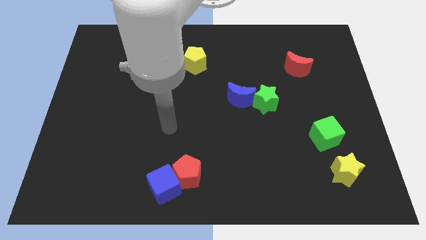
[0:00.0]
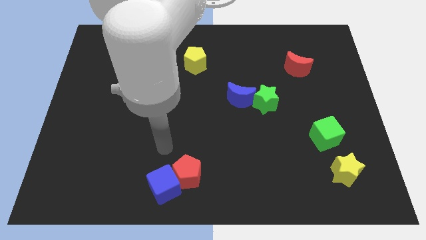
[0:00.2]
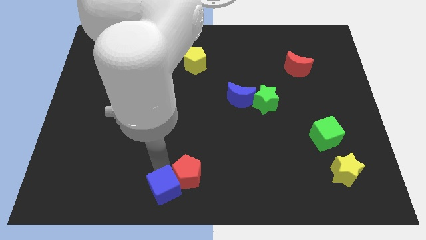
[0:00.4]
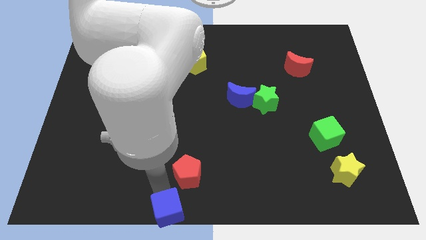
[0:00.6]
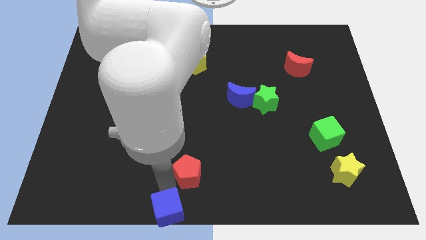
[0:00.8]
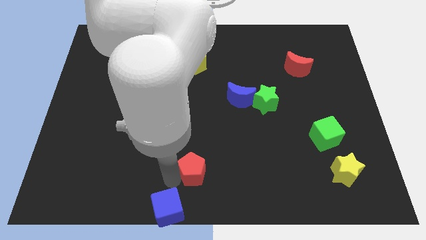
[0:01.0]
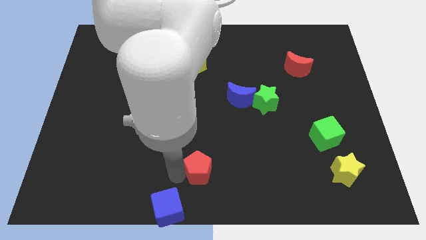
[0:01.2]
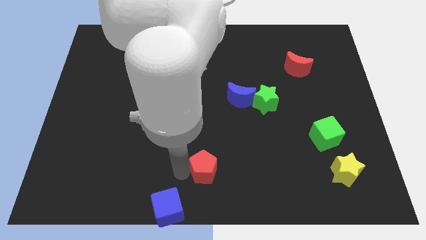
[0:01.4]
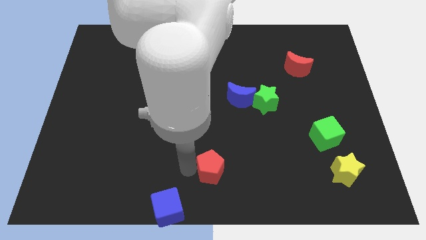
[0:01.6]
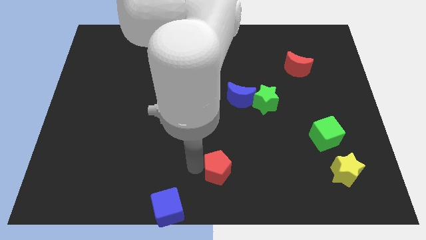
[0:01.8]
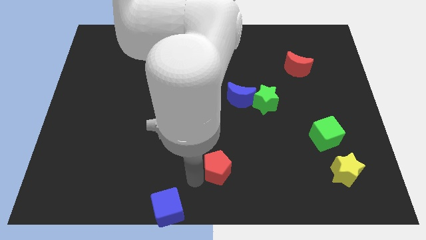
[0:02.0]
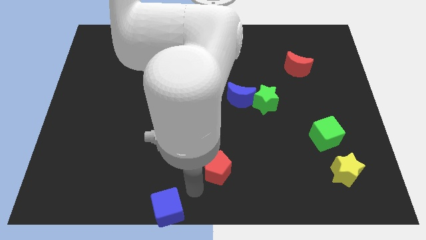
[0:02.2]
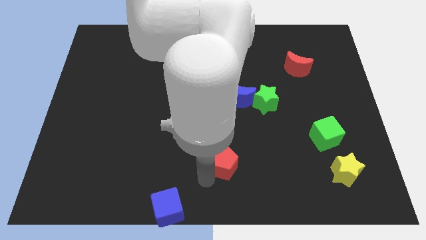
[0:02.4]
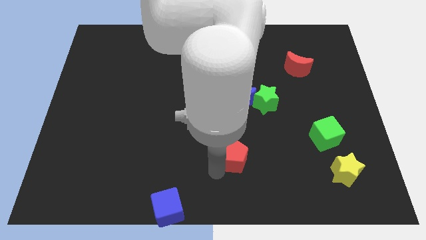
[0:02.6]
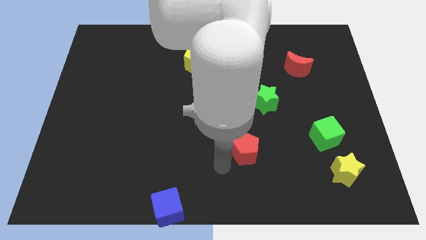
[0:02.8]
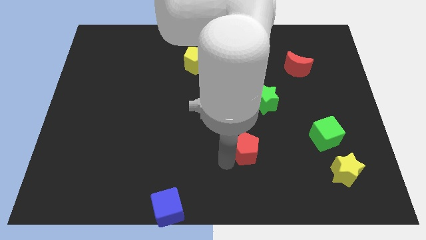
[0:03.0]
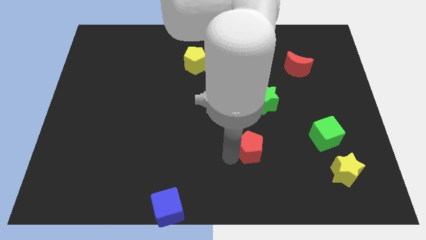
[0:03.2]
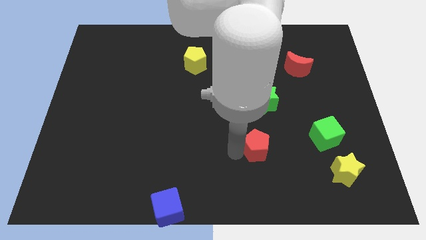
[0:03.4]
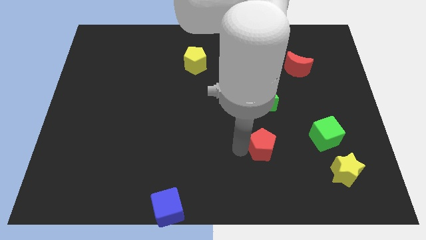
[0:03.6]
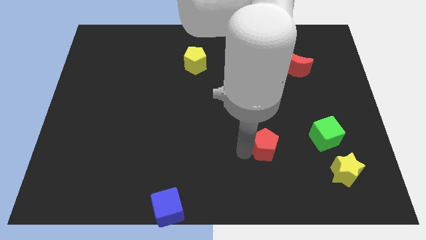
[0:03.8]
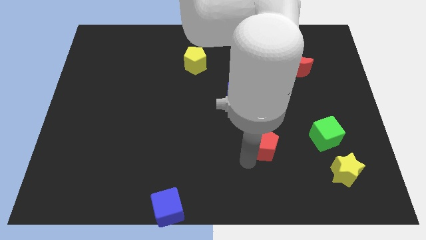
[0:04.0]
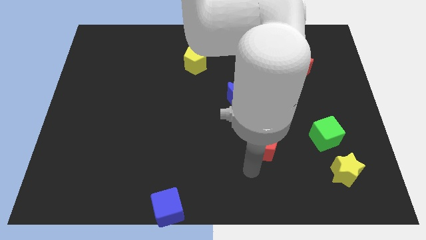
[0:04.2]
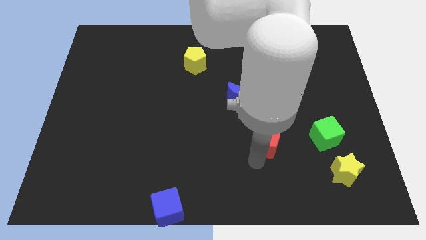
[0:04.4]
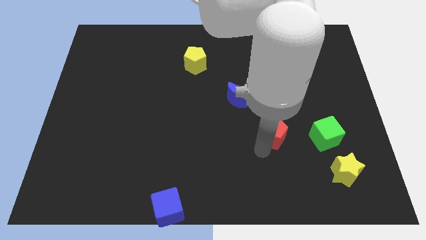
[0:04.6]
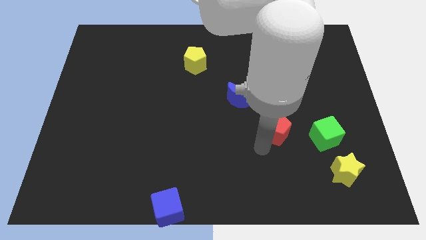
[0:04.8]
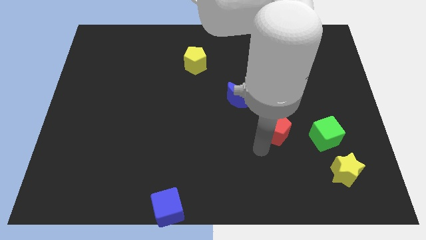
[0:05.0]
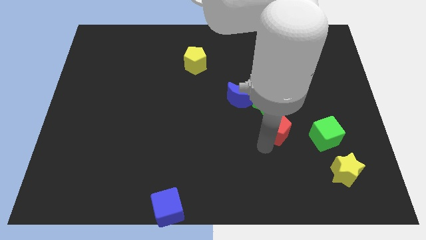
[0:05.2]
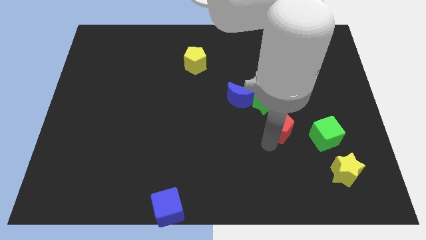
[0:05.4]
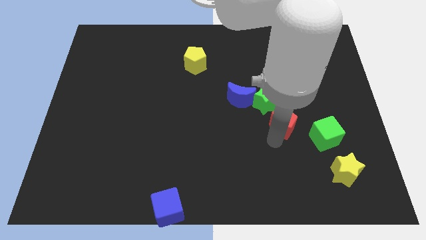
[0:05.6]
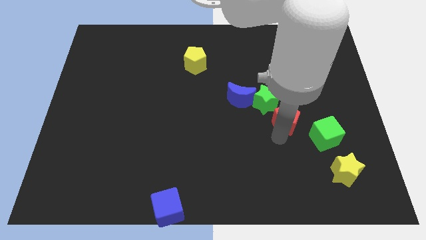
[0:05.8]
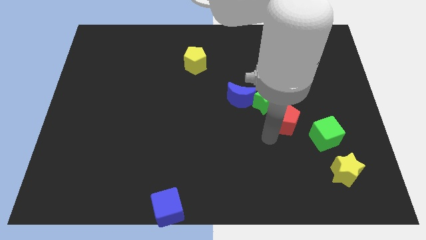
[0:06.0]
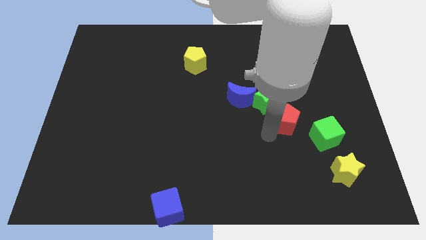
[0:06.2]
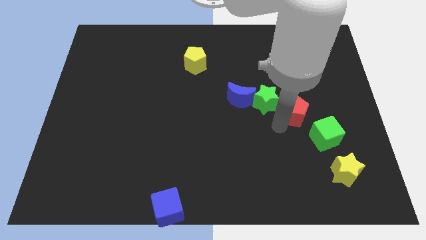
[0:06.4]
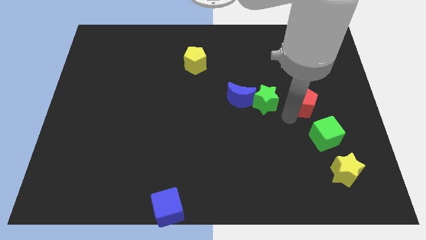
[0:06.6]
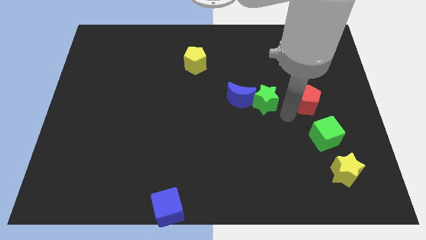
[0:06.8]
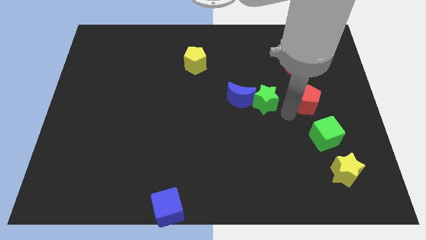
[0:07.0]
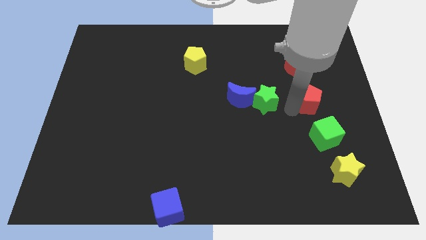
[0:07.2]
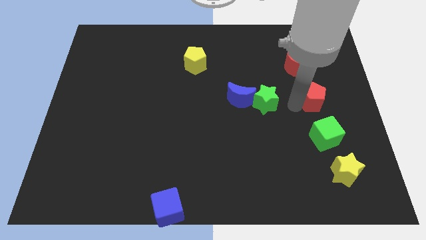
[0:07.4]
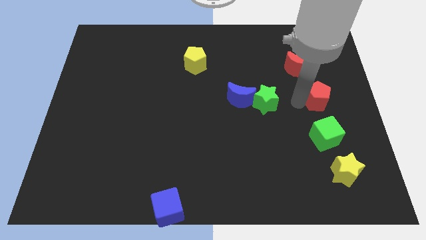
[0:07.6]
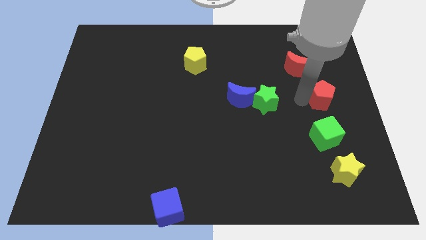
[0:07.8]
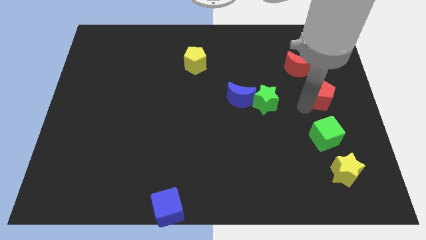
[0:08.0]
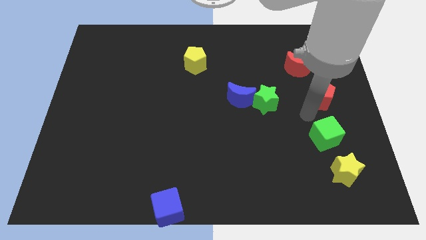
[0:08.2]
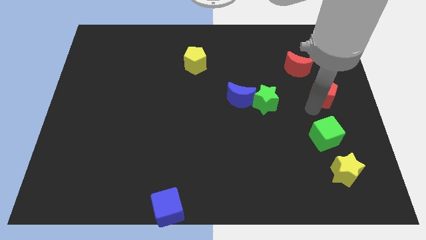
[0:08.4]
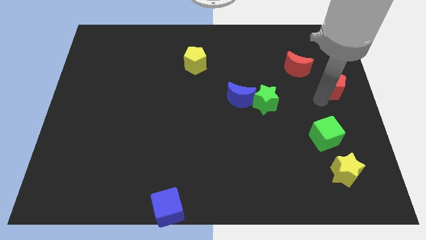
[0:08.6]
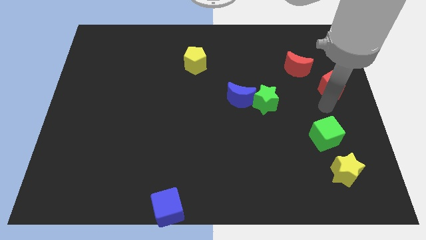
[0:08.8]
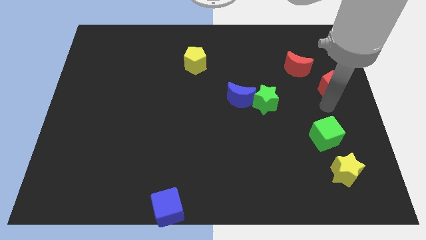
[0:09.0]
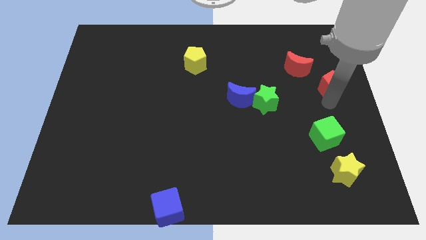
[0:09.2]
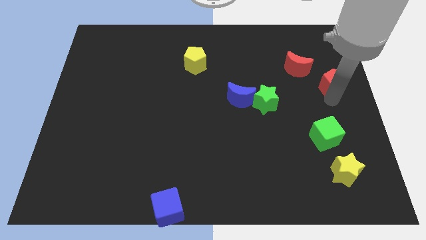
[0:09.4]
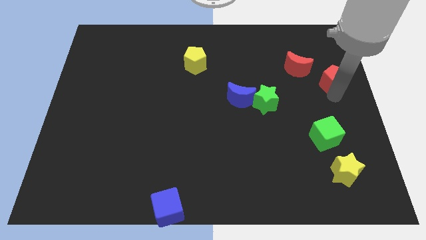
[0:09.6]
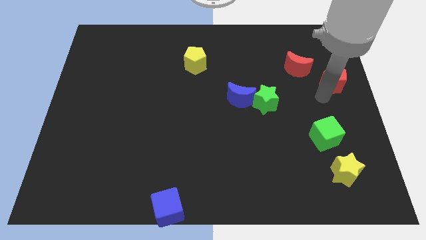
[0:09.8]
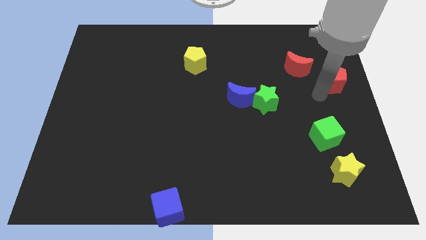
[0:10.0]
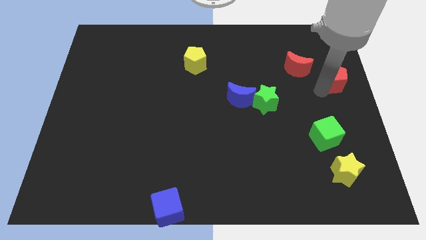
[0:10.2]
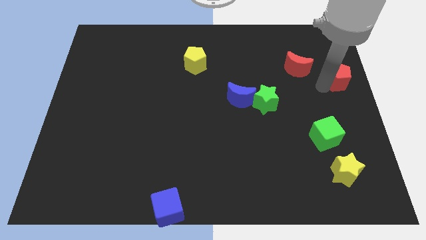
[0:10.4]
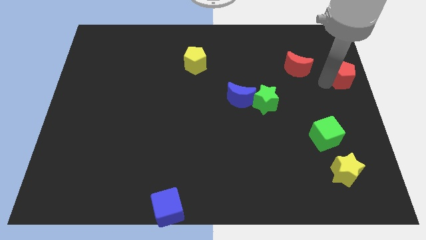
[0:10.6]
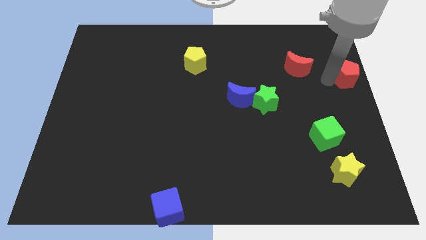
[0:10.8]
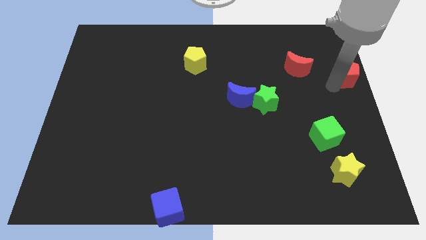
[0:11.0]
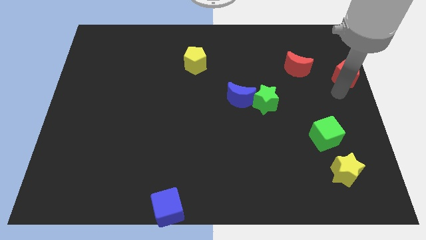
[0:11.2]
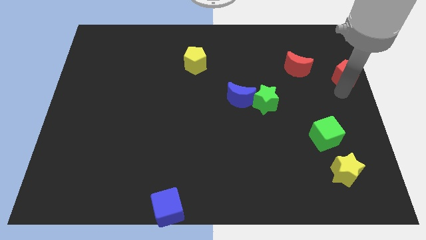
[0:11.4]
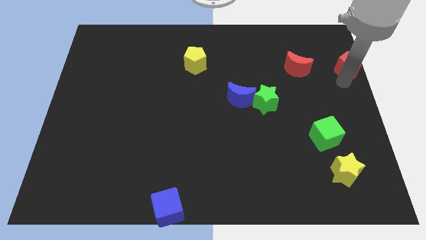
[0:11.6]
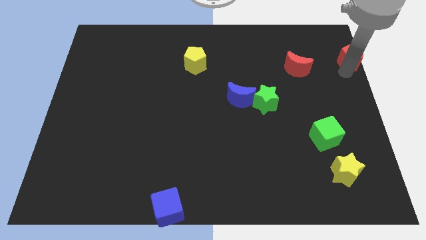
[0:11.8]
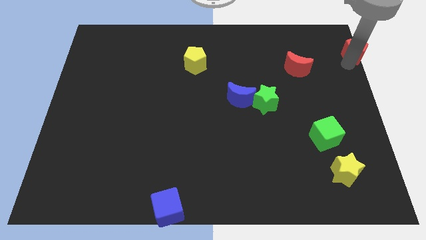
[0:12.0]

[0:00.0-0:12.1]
slide the red pentagon to the top right corner
